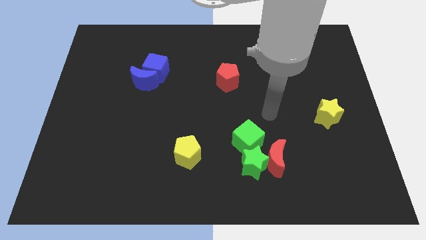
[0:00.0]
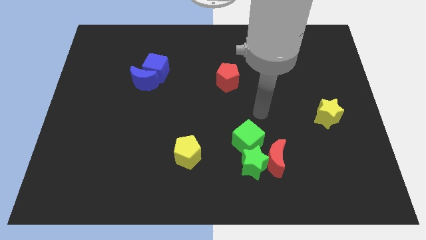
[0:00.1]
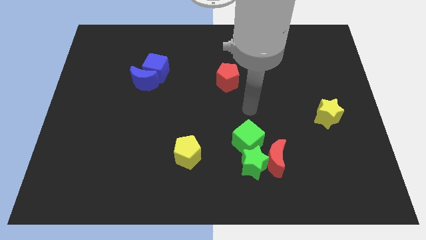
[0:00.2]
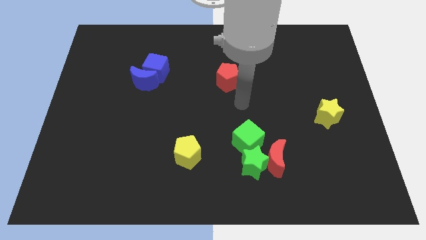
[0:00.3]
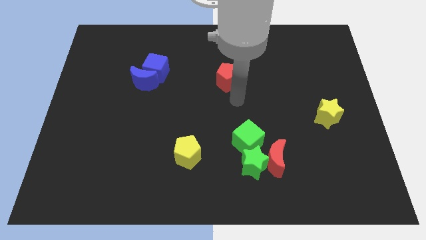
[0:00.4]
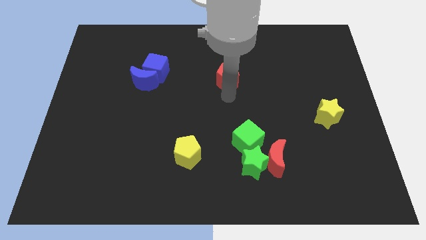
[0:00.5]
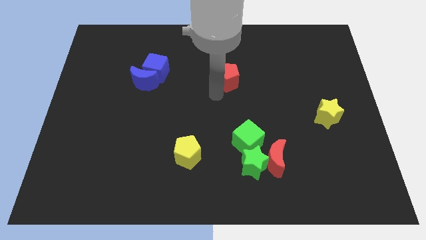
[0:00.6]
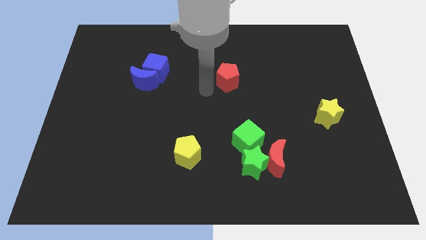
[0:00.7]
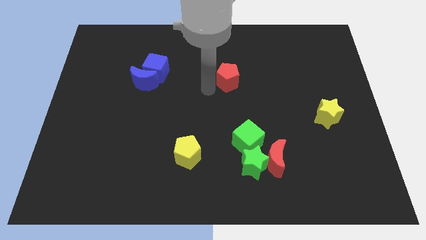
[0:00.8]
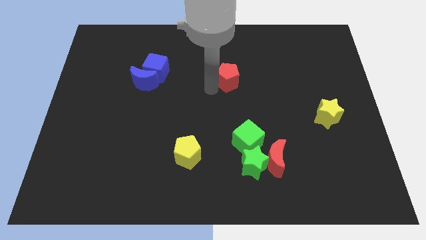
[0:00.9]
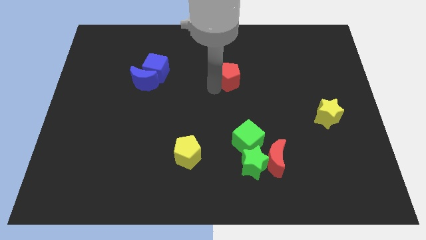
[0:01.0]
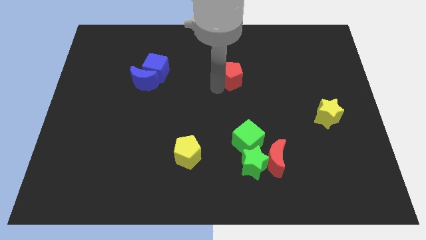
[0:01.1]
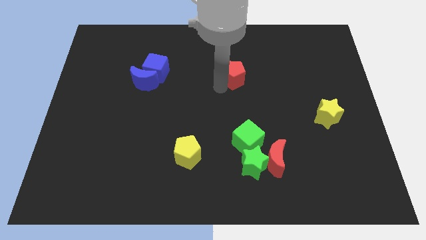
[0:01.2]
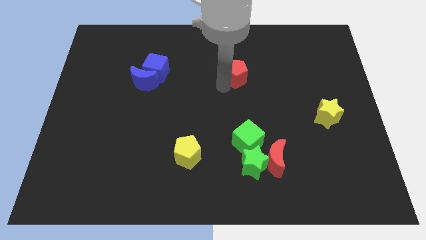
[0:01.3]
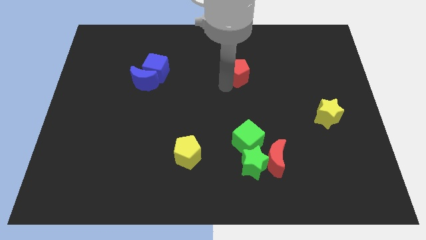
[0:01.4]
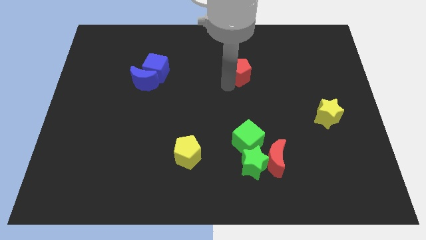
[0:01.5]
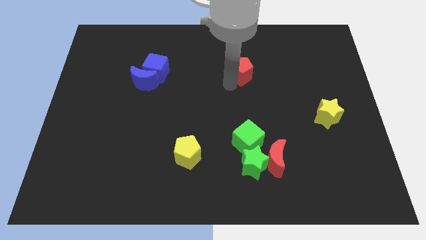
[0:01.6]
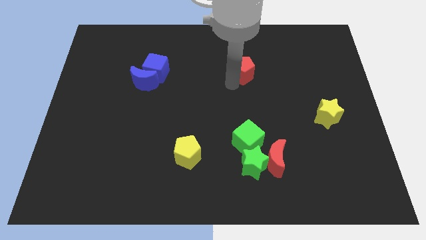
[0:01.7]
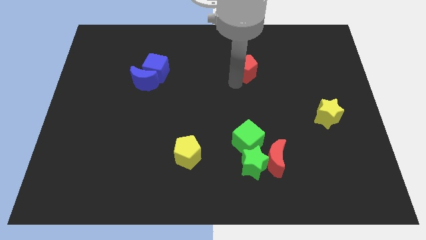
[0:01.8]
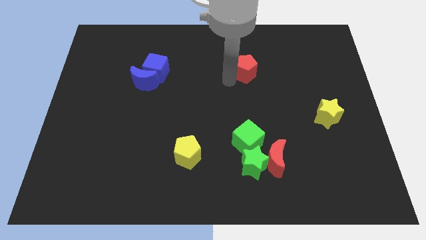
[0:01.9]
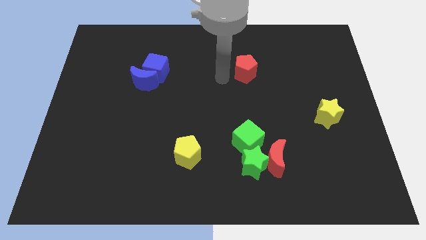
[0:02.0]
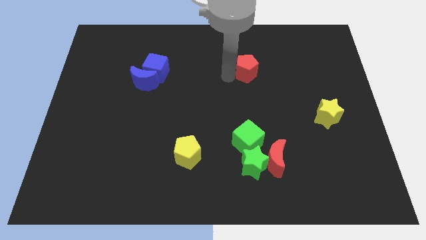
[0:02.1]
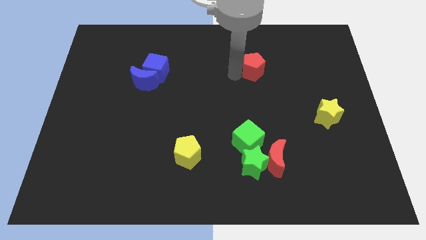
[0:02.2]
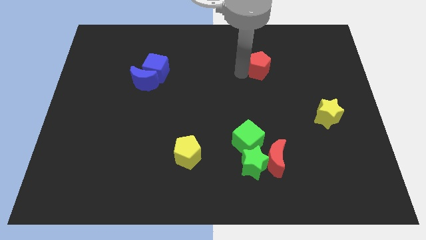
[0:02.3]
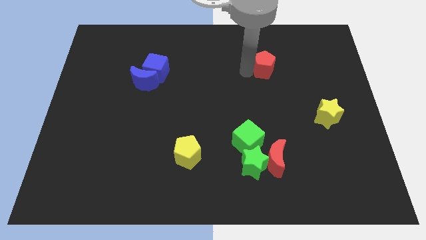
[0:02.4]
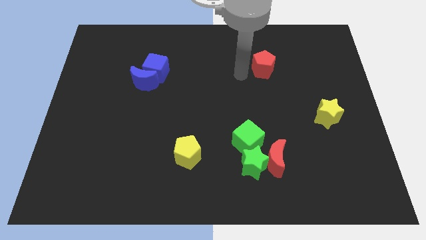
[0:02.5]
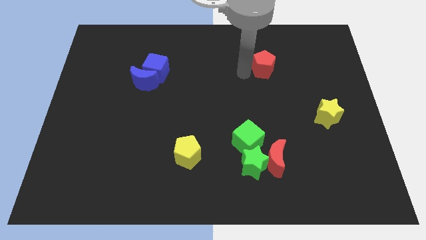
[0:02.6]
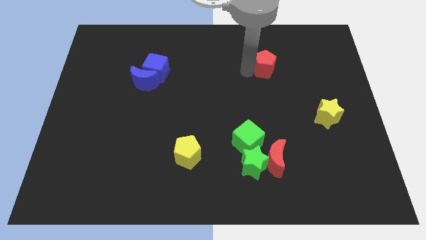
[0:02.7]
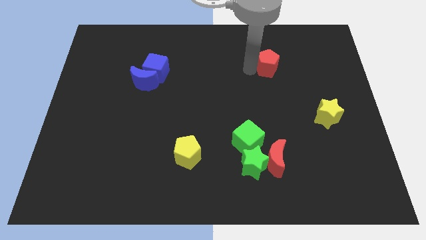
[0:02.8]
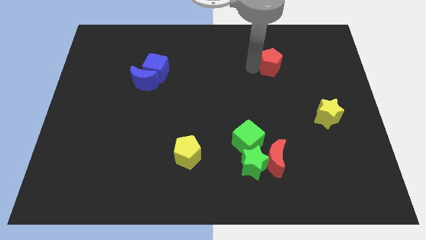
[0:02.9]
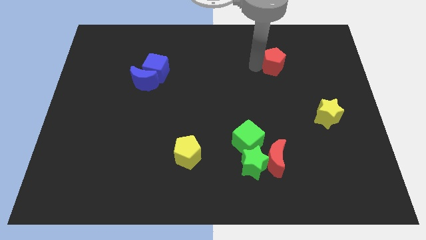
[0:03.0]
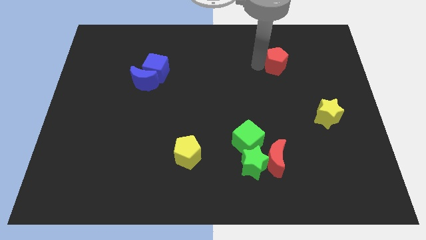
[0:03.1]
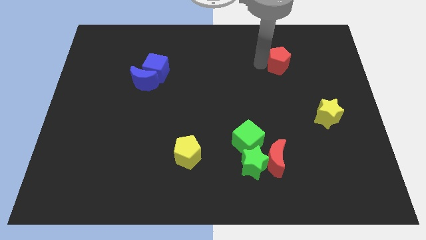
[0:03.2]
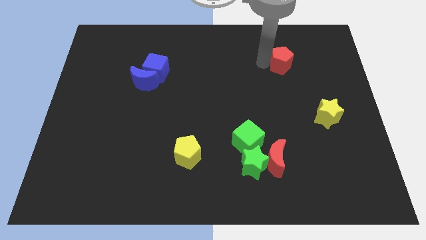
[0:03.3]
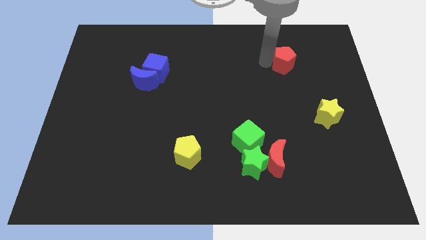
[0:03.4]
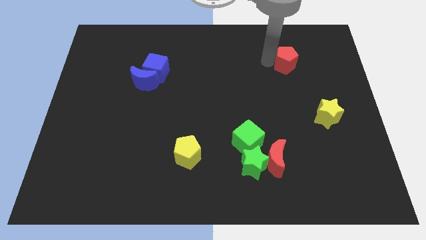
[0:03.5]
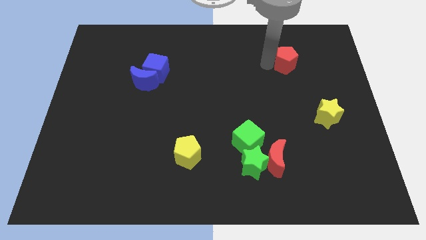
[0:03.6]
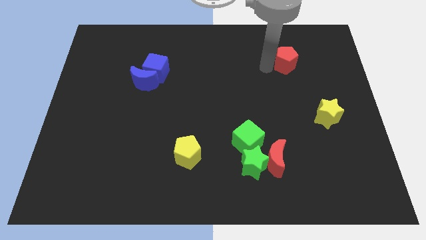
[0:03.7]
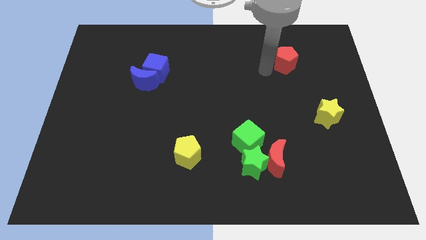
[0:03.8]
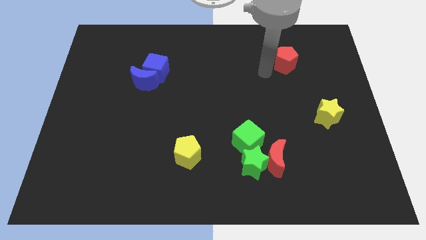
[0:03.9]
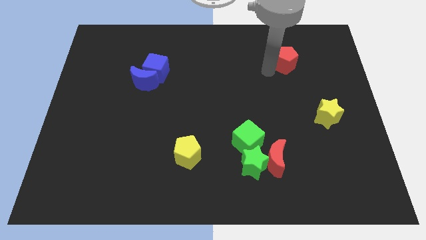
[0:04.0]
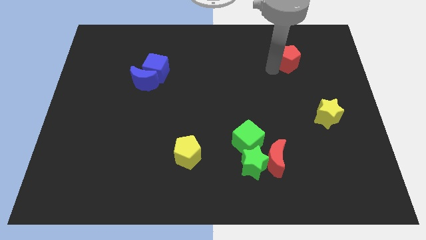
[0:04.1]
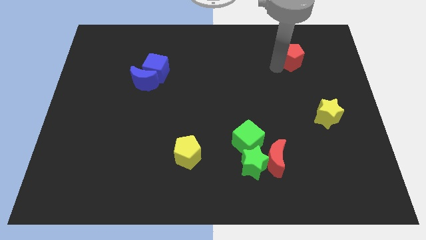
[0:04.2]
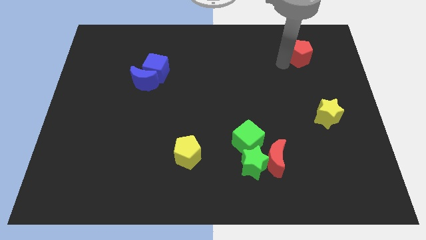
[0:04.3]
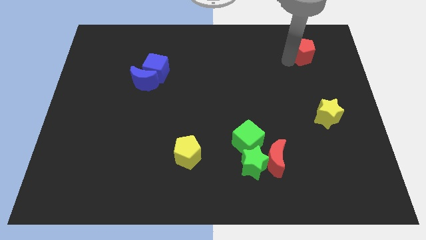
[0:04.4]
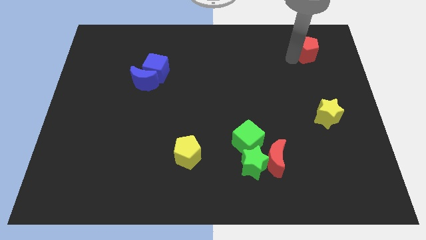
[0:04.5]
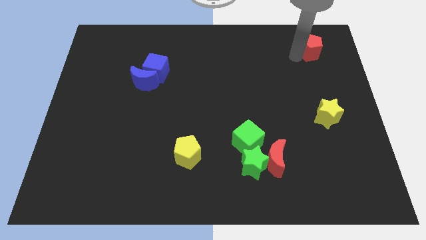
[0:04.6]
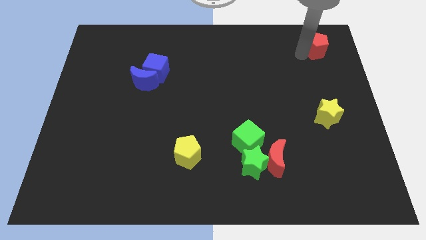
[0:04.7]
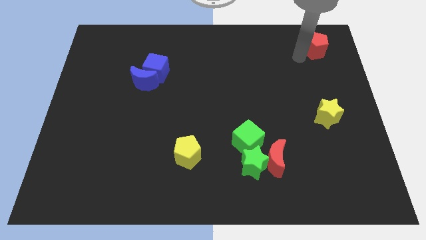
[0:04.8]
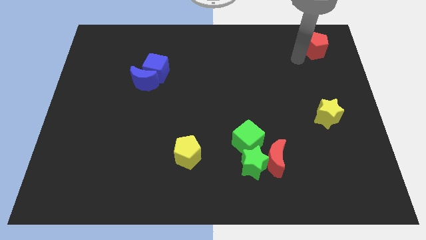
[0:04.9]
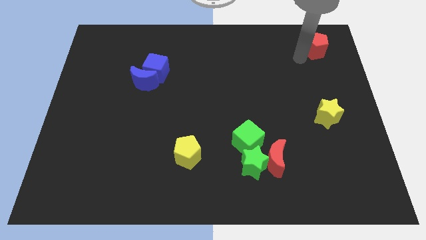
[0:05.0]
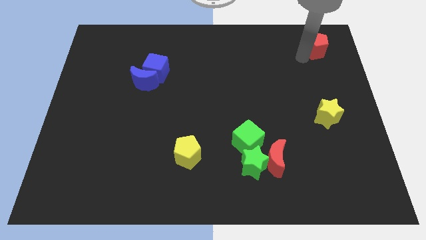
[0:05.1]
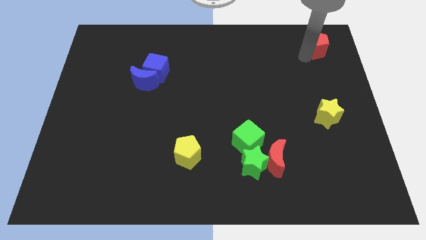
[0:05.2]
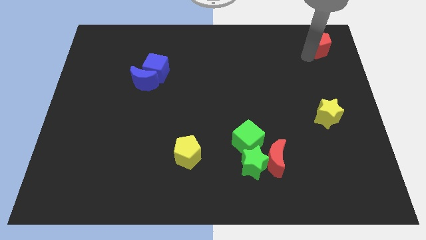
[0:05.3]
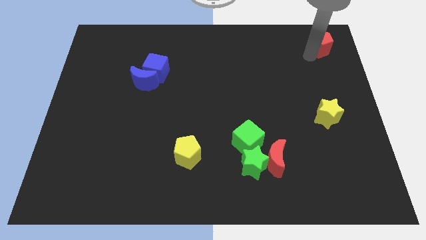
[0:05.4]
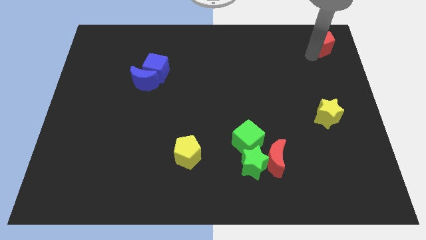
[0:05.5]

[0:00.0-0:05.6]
move the red pentagon to the top right corner
